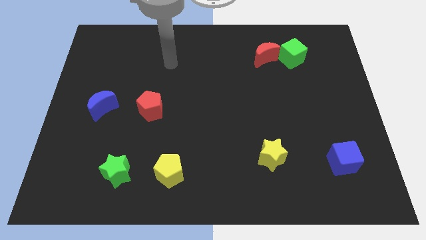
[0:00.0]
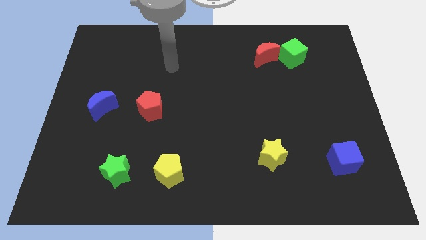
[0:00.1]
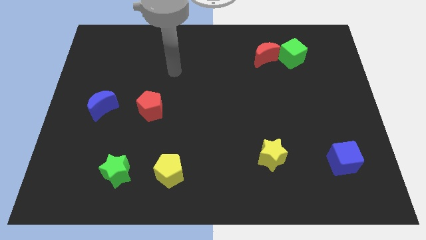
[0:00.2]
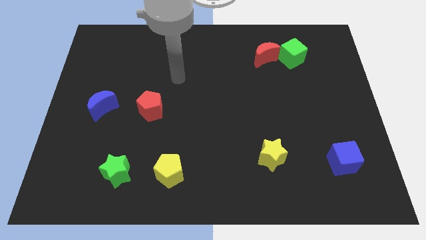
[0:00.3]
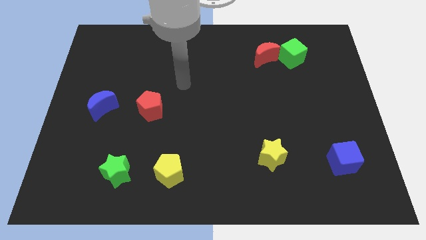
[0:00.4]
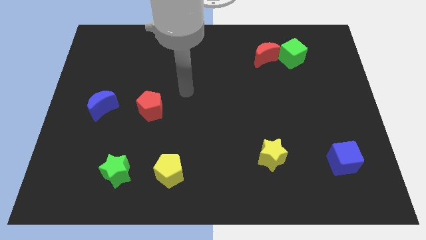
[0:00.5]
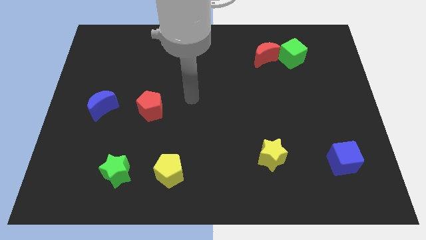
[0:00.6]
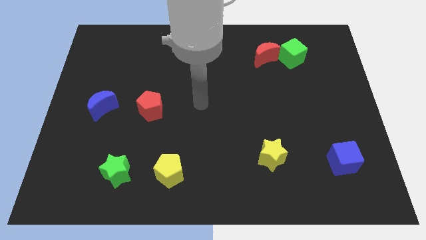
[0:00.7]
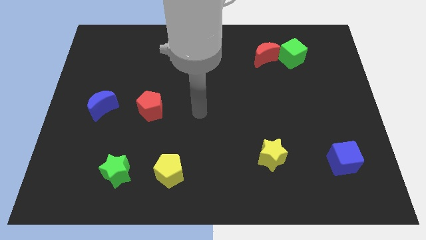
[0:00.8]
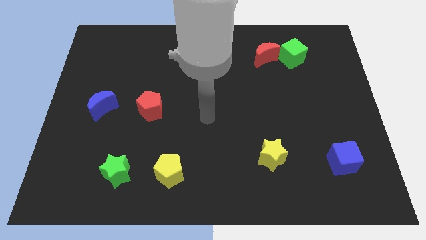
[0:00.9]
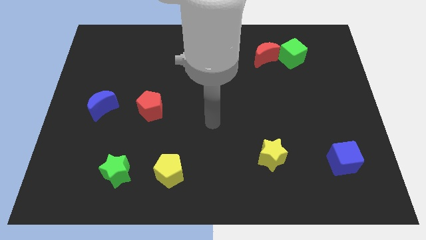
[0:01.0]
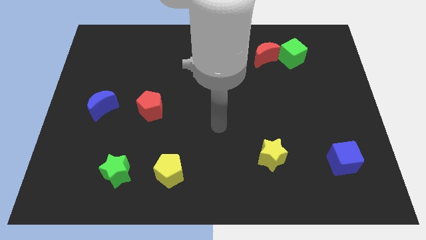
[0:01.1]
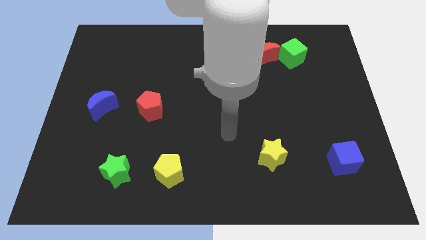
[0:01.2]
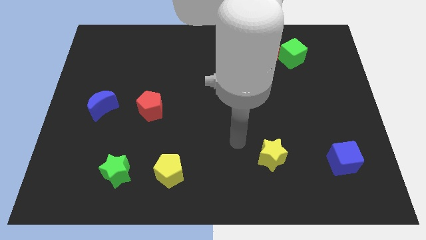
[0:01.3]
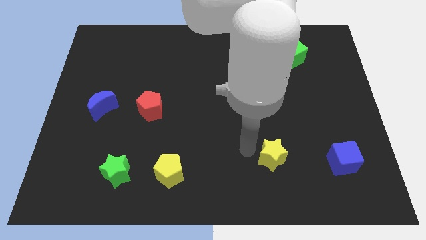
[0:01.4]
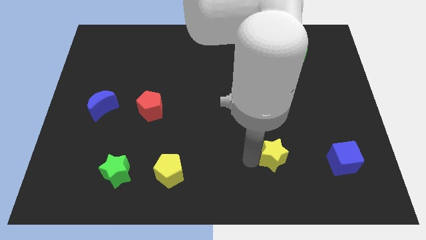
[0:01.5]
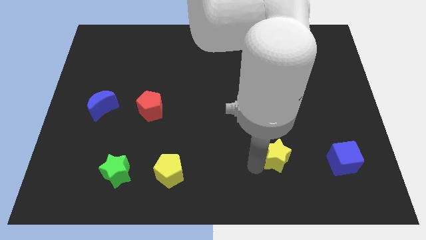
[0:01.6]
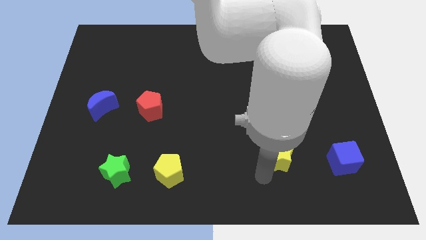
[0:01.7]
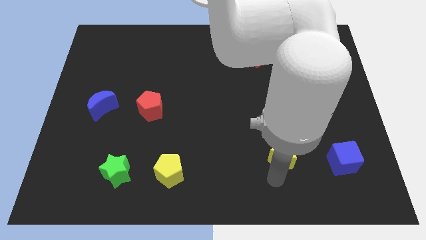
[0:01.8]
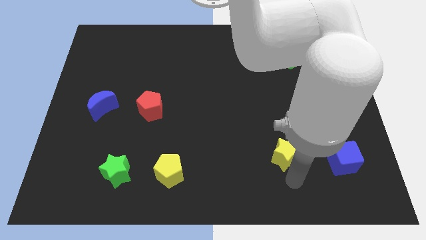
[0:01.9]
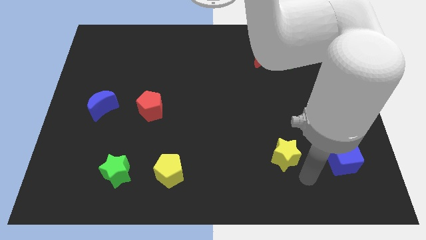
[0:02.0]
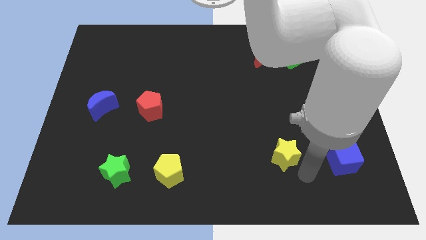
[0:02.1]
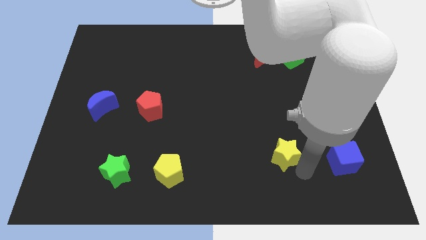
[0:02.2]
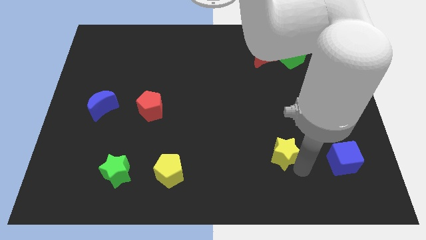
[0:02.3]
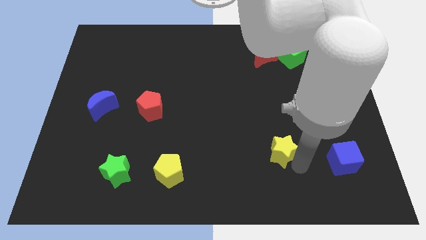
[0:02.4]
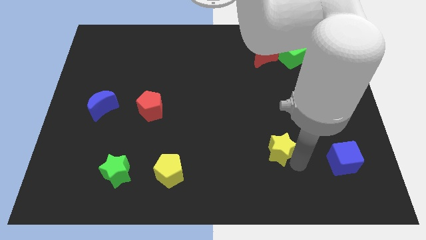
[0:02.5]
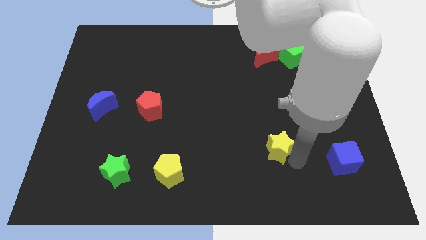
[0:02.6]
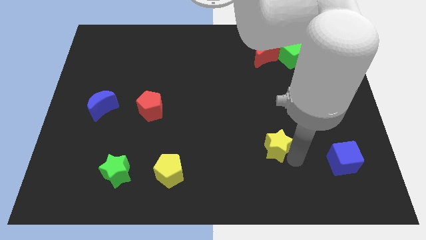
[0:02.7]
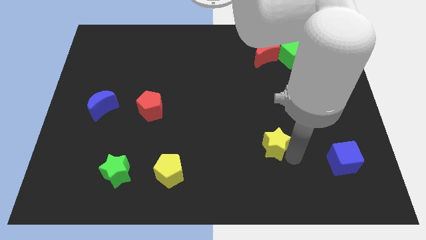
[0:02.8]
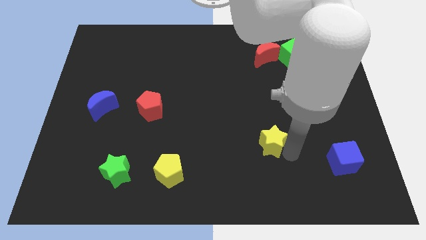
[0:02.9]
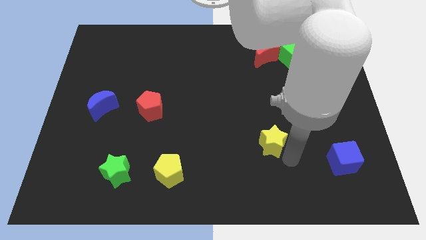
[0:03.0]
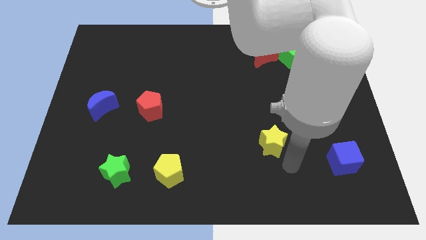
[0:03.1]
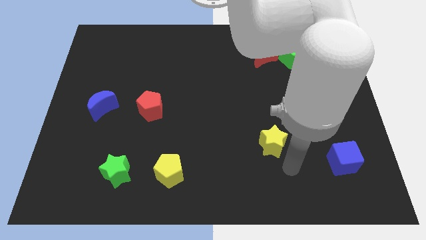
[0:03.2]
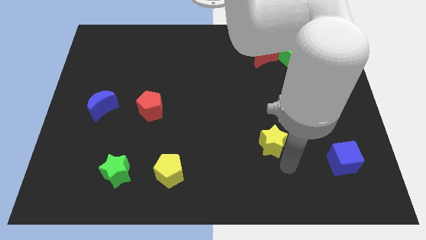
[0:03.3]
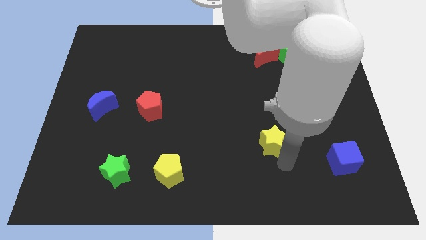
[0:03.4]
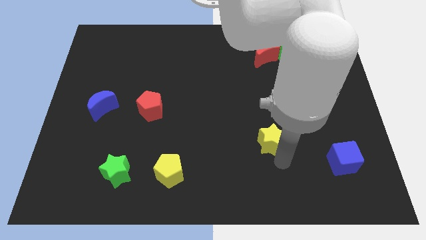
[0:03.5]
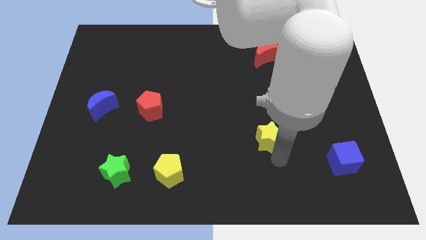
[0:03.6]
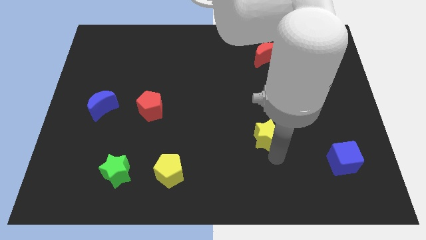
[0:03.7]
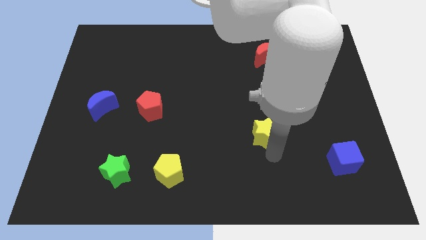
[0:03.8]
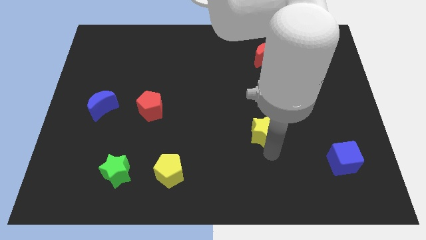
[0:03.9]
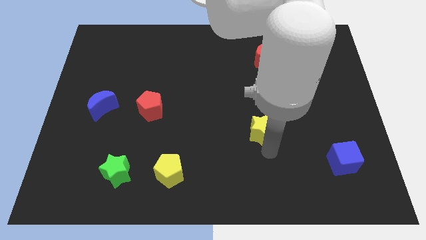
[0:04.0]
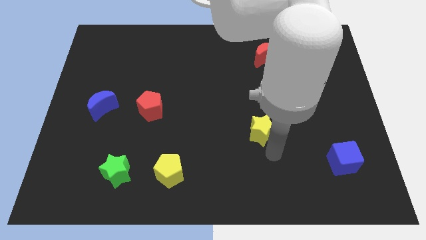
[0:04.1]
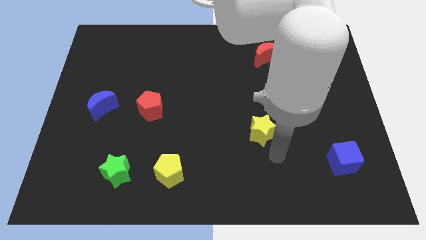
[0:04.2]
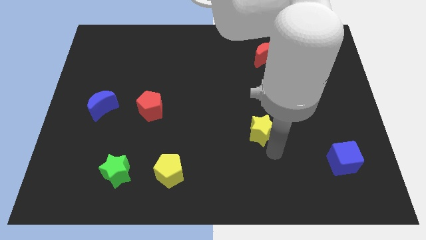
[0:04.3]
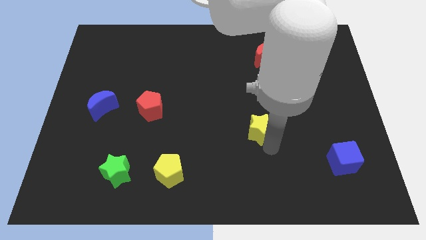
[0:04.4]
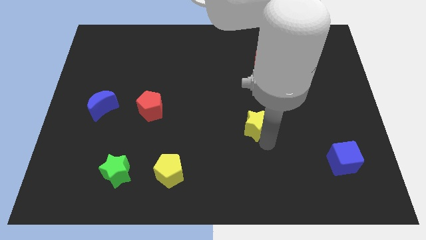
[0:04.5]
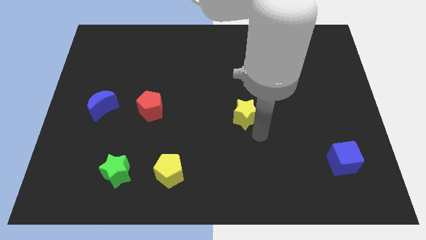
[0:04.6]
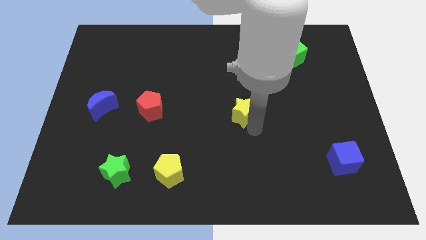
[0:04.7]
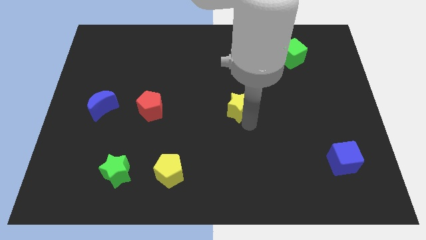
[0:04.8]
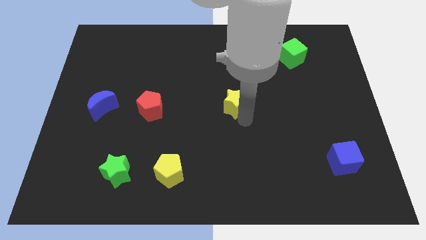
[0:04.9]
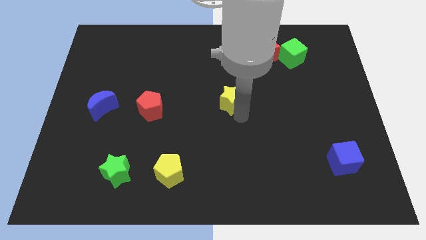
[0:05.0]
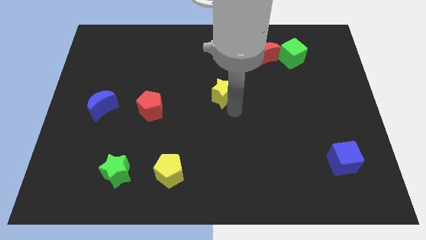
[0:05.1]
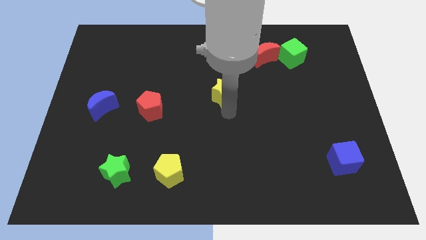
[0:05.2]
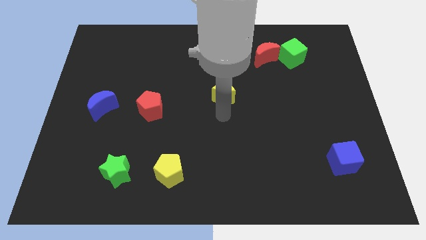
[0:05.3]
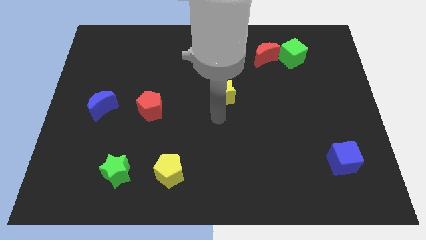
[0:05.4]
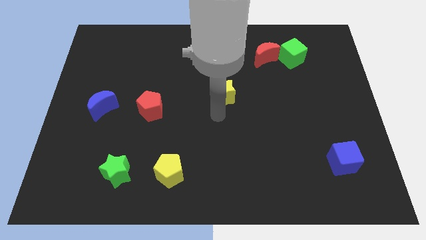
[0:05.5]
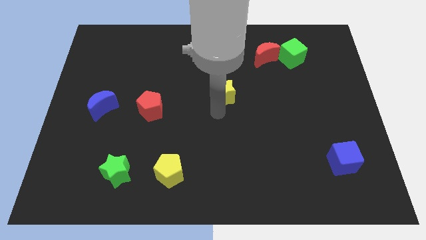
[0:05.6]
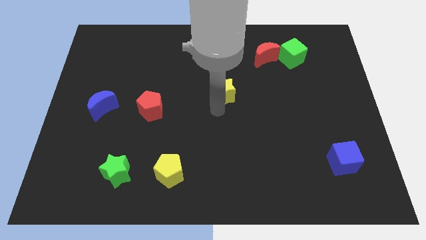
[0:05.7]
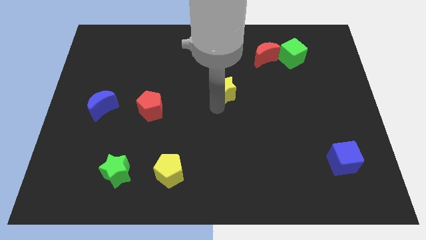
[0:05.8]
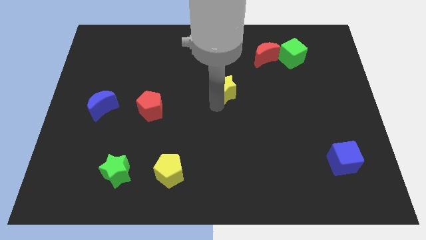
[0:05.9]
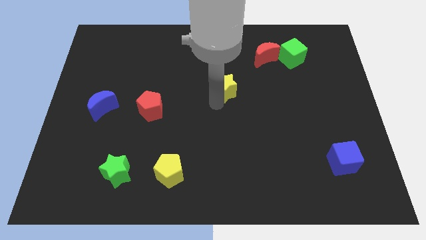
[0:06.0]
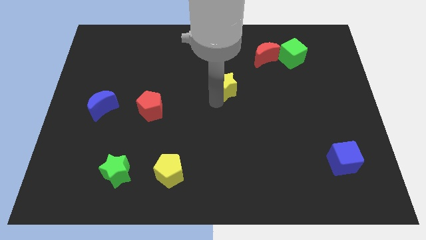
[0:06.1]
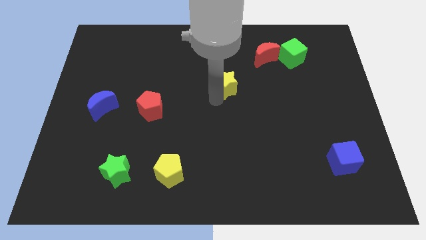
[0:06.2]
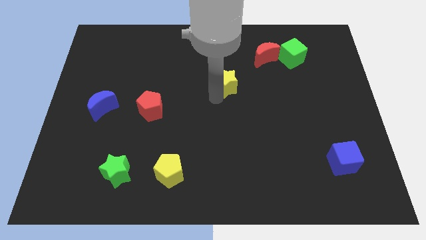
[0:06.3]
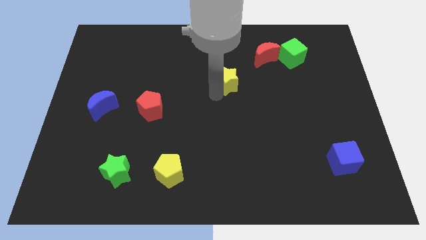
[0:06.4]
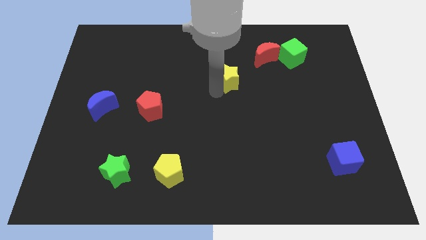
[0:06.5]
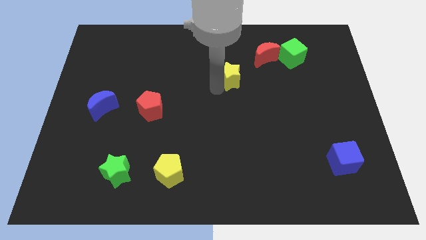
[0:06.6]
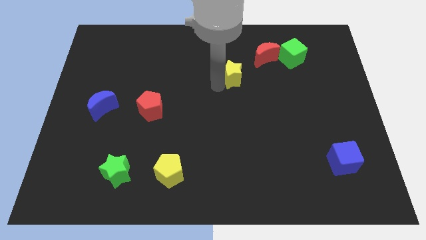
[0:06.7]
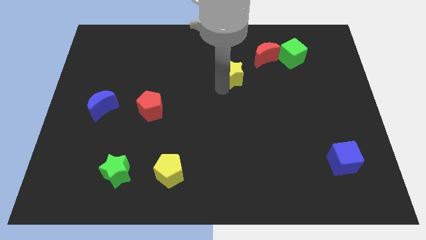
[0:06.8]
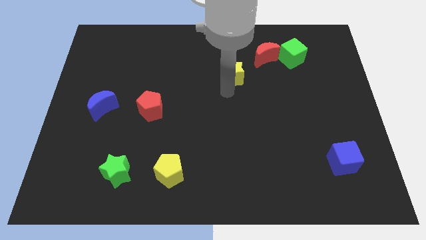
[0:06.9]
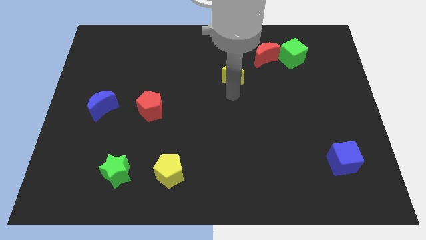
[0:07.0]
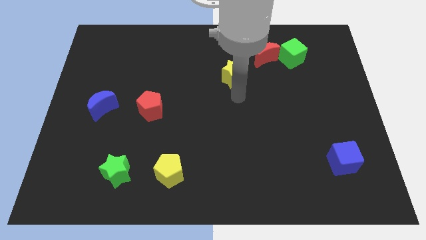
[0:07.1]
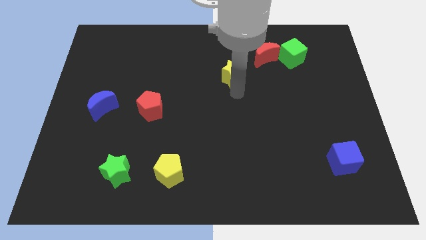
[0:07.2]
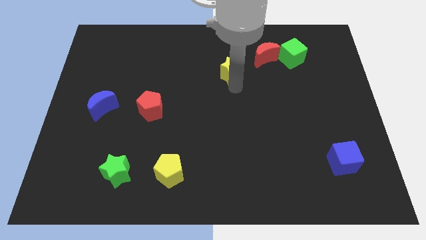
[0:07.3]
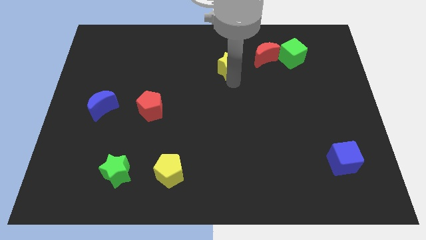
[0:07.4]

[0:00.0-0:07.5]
slide the yellow star just left of the red moon
